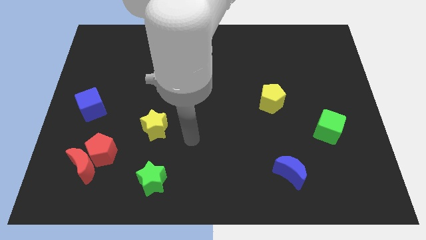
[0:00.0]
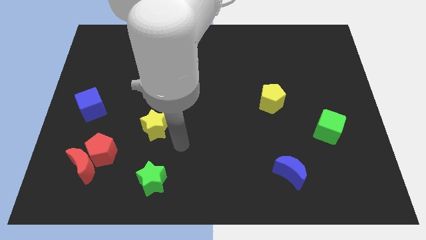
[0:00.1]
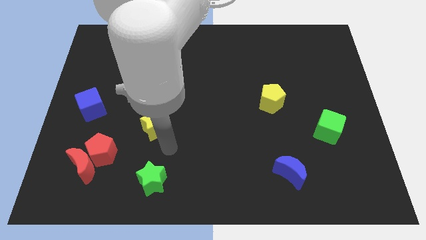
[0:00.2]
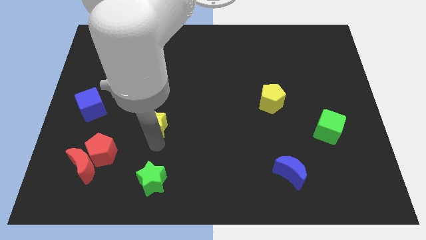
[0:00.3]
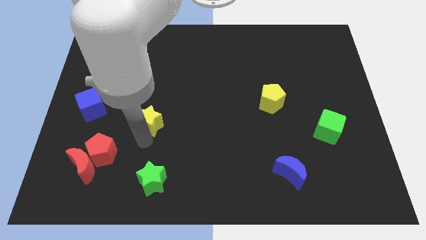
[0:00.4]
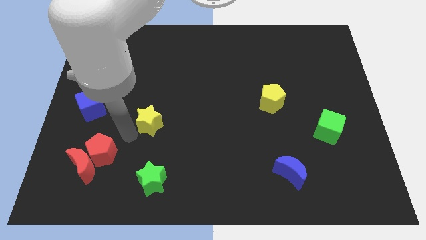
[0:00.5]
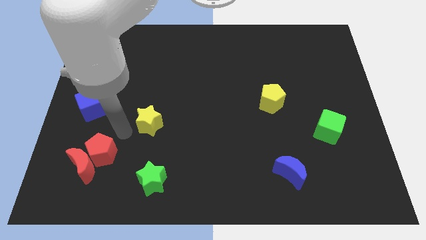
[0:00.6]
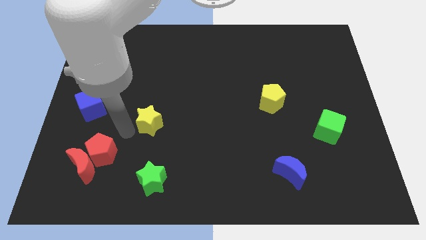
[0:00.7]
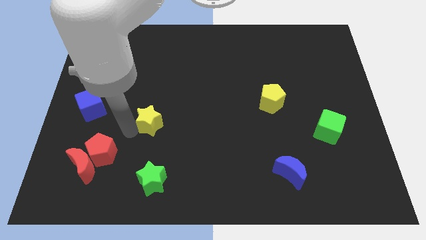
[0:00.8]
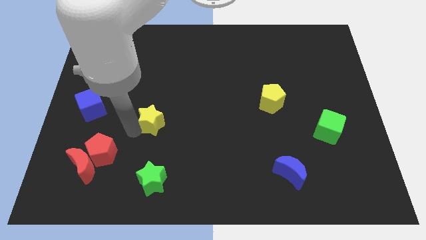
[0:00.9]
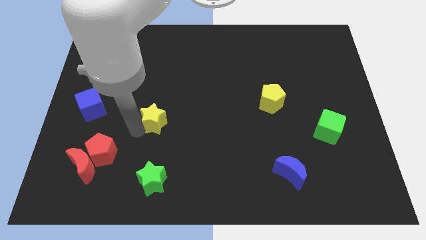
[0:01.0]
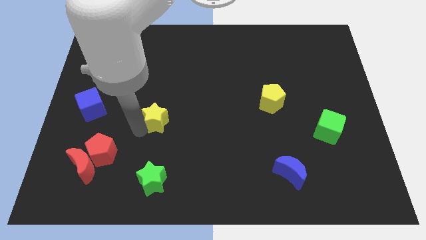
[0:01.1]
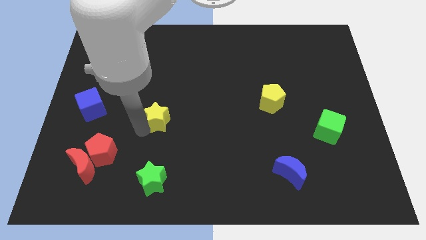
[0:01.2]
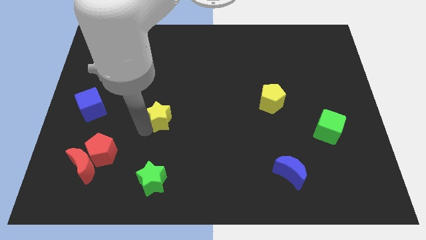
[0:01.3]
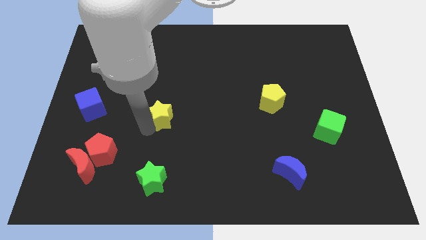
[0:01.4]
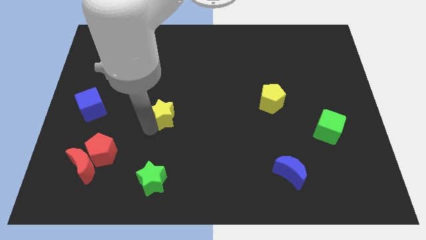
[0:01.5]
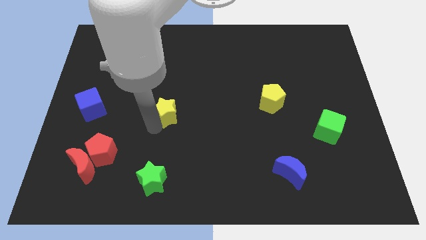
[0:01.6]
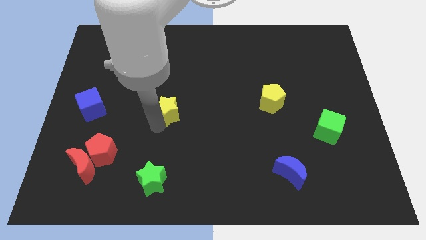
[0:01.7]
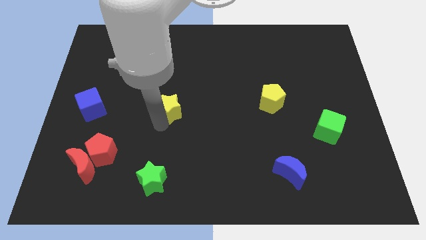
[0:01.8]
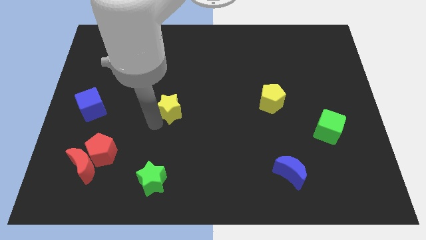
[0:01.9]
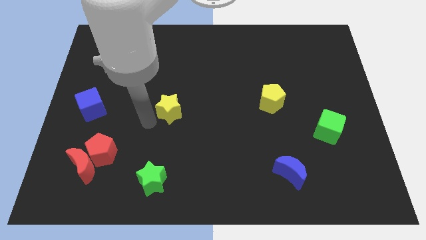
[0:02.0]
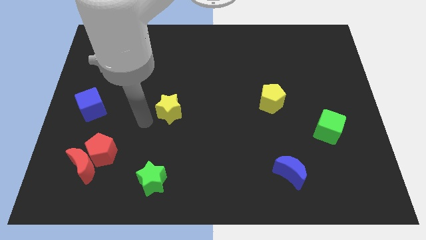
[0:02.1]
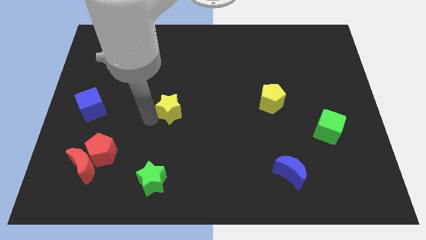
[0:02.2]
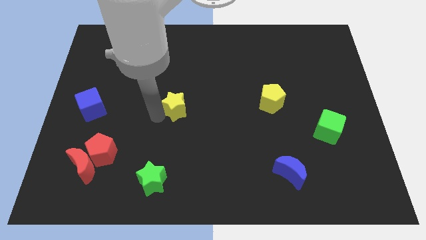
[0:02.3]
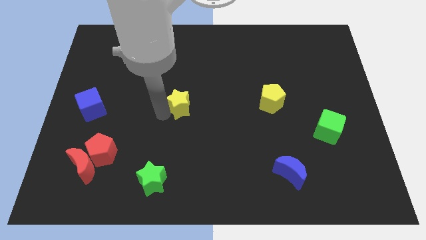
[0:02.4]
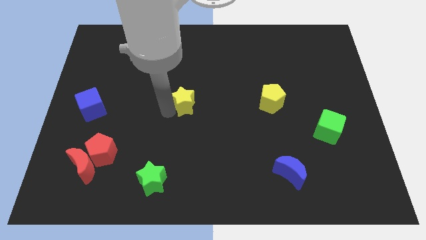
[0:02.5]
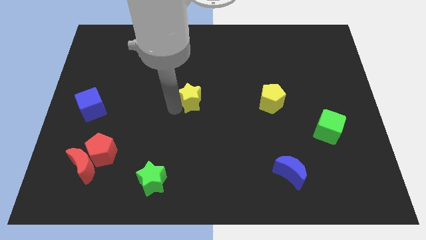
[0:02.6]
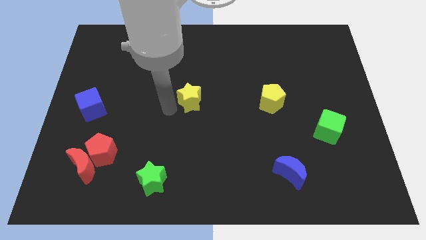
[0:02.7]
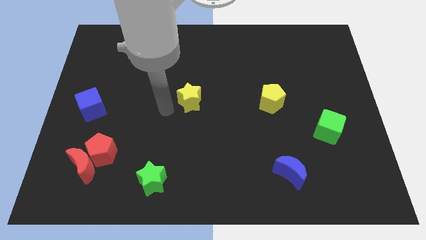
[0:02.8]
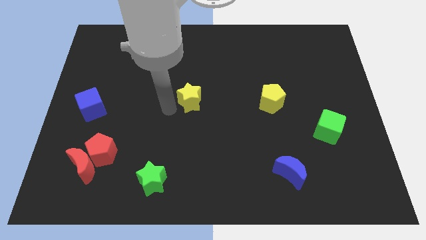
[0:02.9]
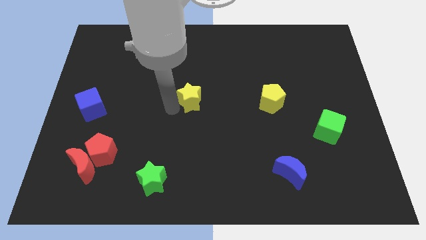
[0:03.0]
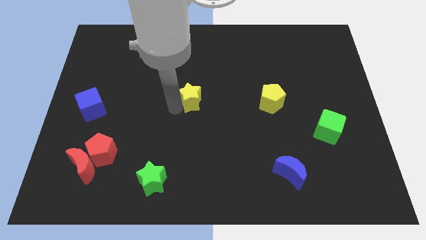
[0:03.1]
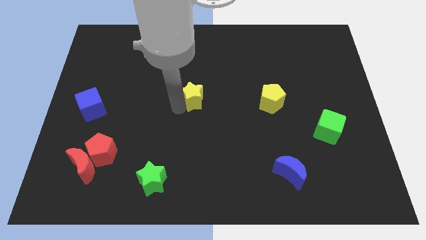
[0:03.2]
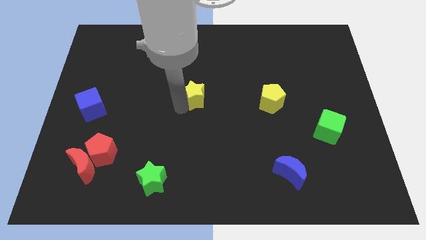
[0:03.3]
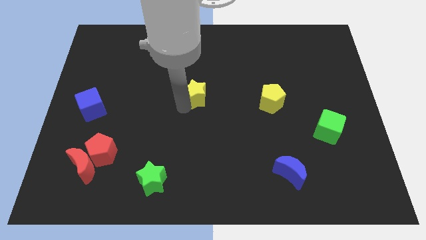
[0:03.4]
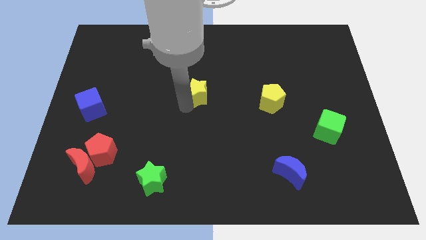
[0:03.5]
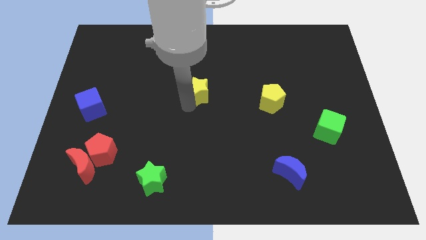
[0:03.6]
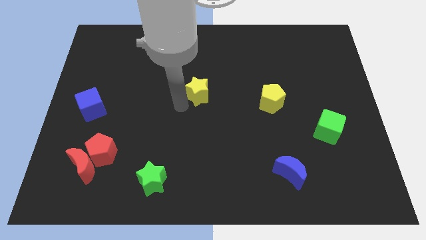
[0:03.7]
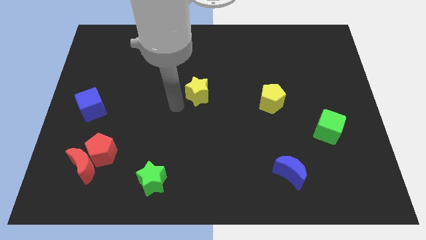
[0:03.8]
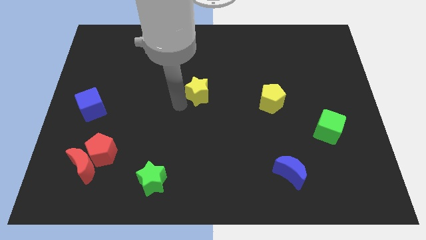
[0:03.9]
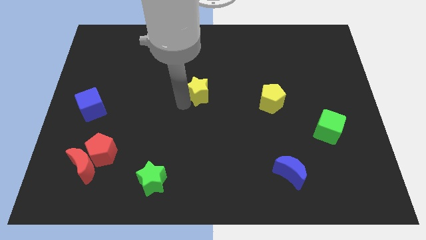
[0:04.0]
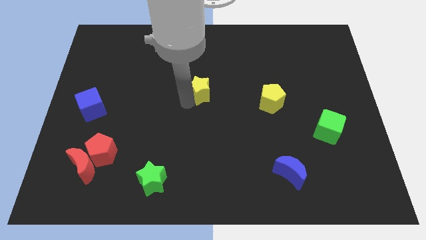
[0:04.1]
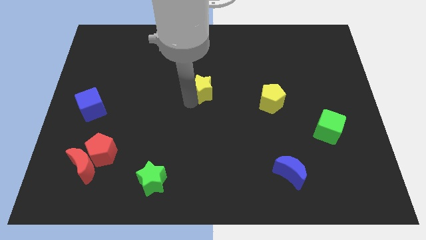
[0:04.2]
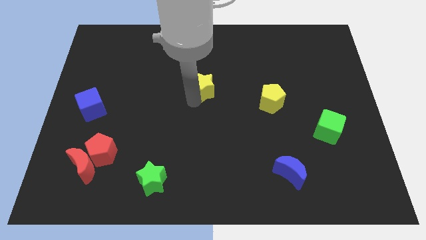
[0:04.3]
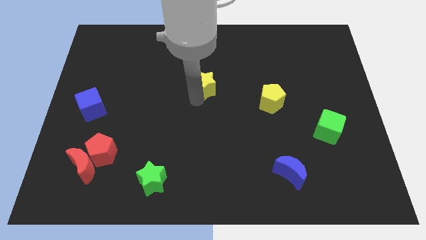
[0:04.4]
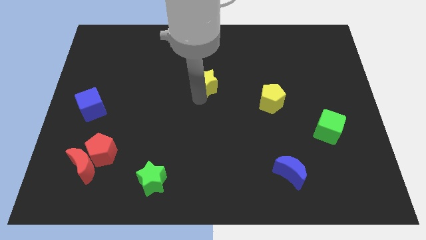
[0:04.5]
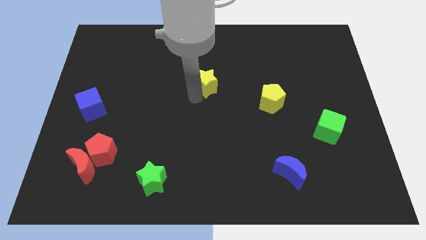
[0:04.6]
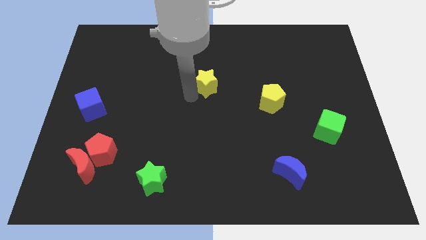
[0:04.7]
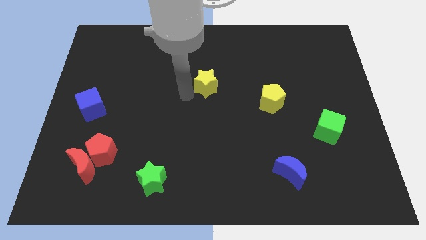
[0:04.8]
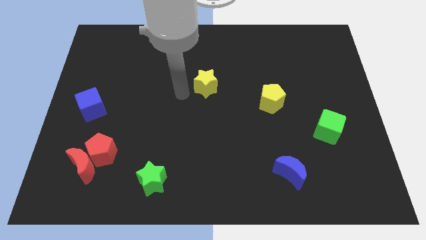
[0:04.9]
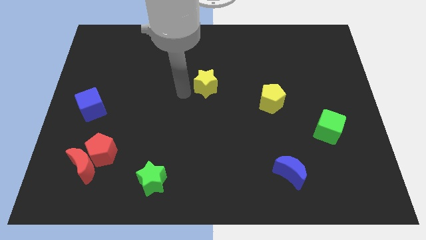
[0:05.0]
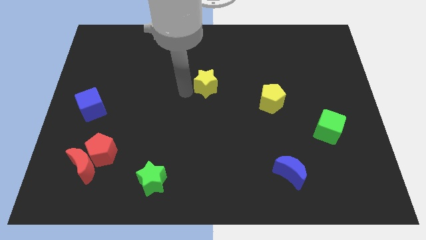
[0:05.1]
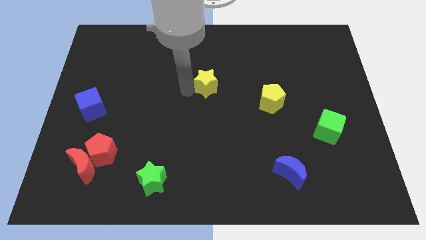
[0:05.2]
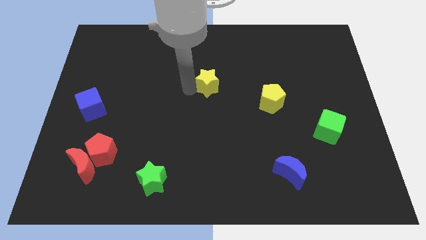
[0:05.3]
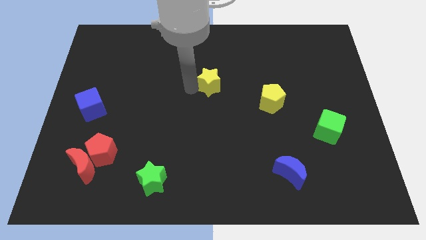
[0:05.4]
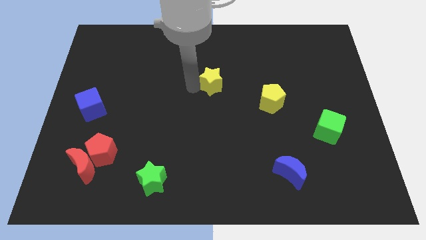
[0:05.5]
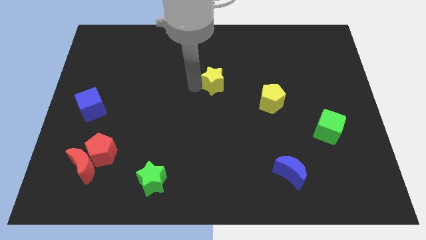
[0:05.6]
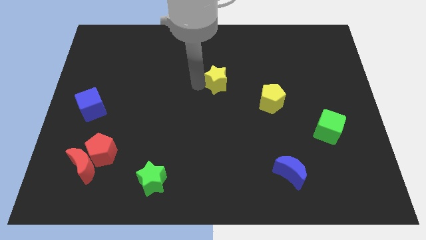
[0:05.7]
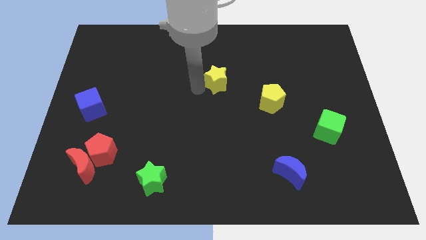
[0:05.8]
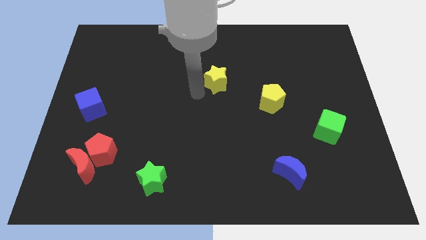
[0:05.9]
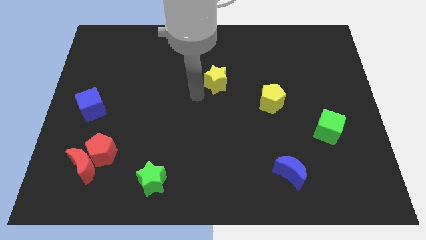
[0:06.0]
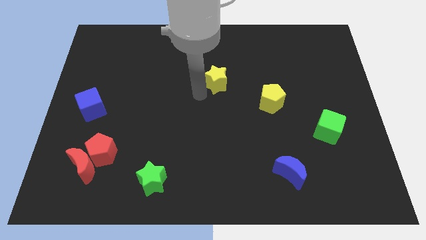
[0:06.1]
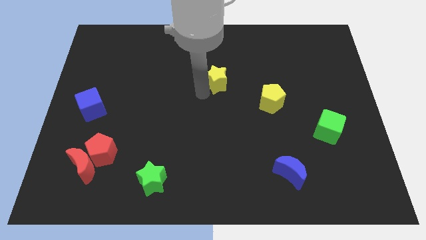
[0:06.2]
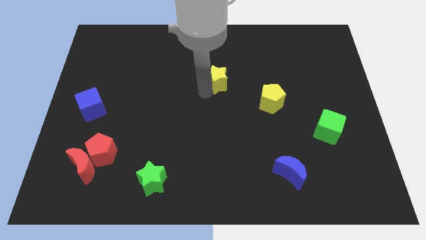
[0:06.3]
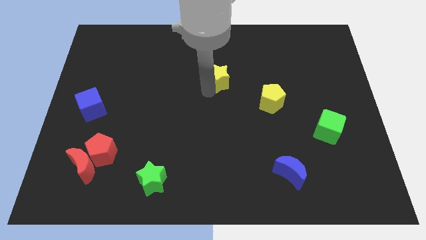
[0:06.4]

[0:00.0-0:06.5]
move the yellow star up and right

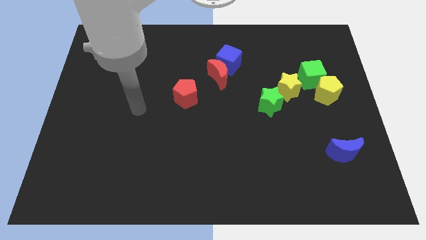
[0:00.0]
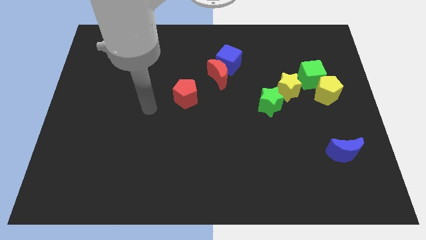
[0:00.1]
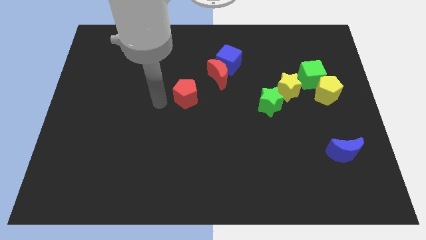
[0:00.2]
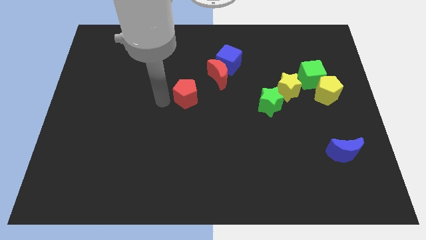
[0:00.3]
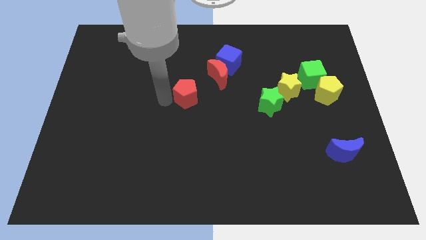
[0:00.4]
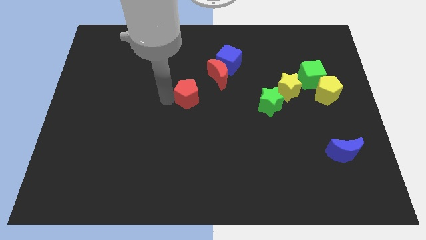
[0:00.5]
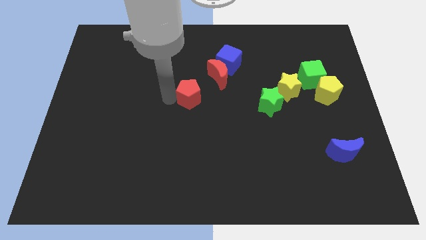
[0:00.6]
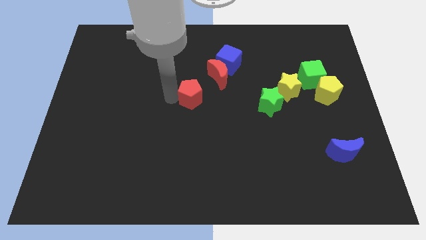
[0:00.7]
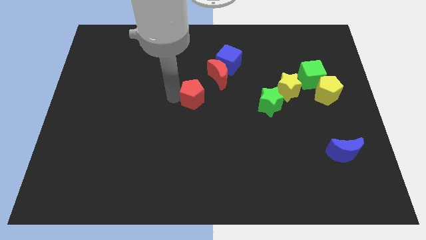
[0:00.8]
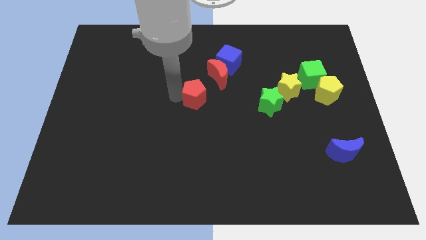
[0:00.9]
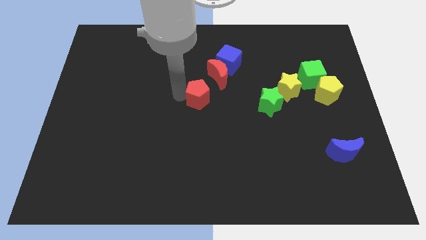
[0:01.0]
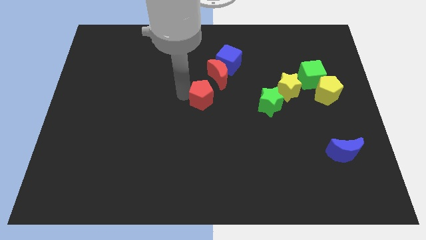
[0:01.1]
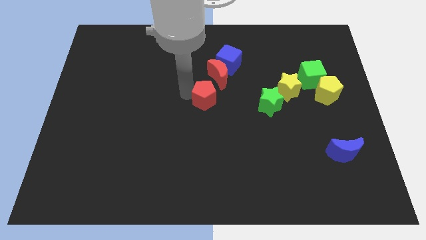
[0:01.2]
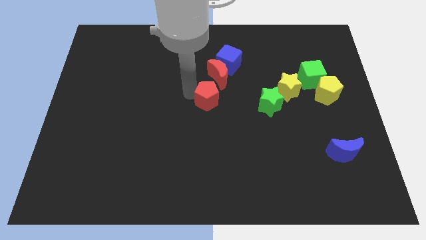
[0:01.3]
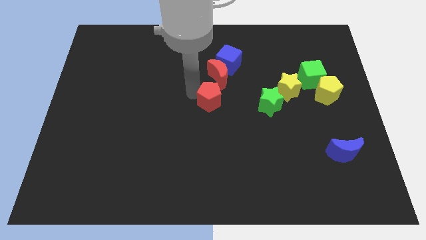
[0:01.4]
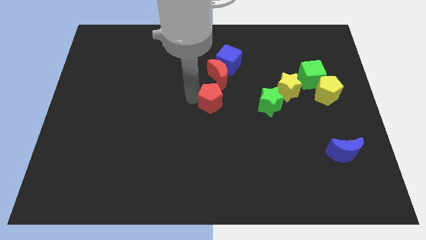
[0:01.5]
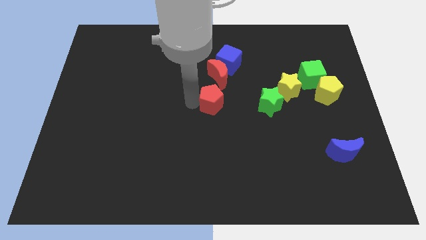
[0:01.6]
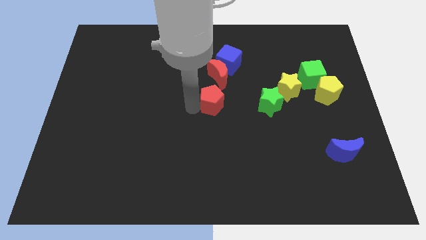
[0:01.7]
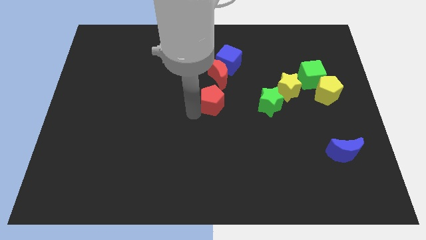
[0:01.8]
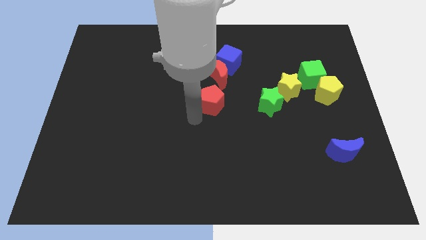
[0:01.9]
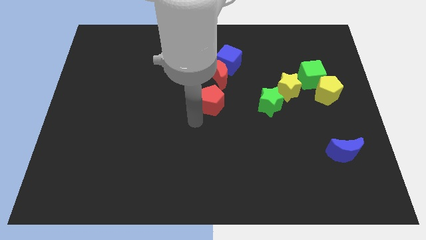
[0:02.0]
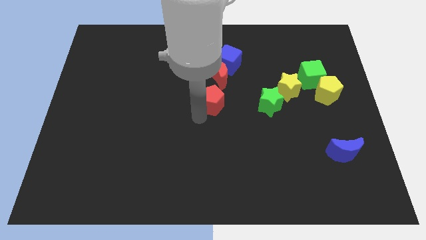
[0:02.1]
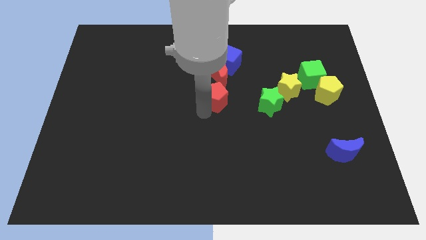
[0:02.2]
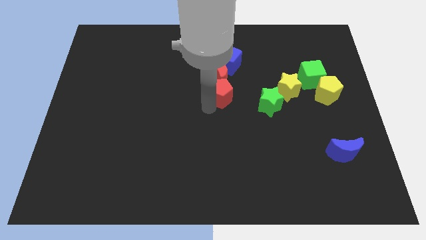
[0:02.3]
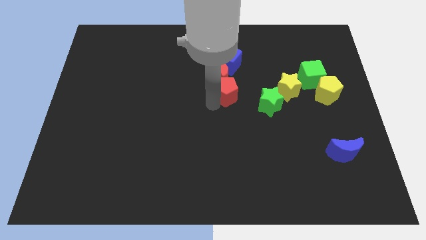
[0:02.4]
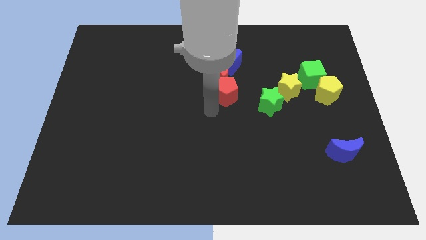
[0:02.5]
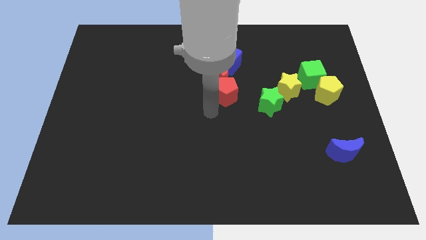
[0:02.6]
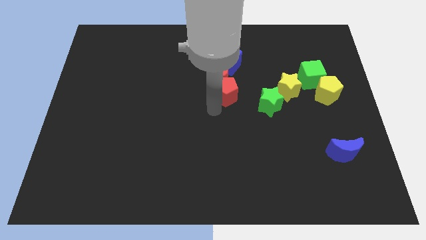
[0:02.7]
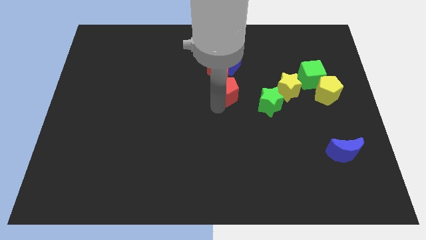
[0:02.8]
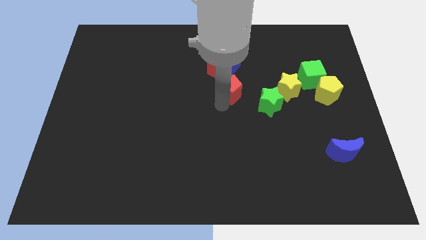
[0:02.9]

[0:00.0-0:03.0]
move the red pentagon up and right a bit
